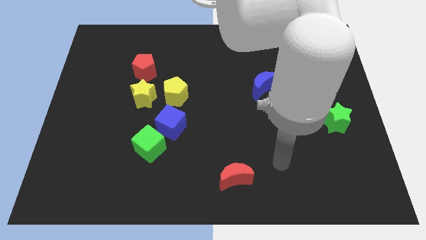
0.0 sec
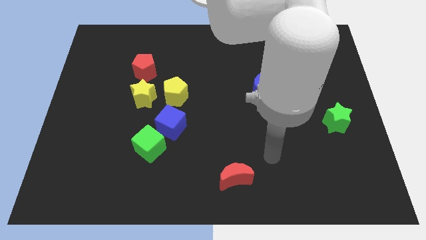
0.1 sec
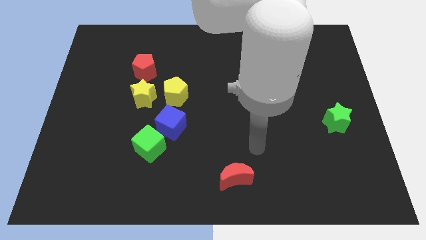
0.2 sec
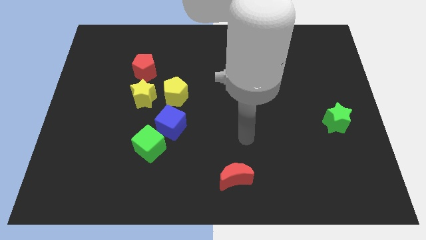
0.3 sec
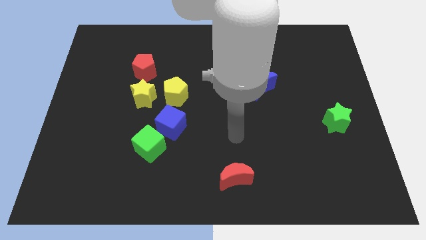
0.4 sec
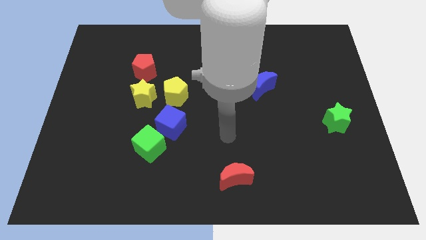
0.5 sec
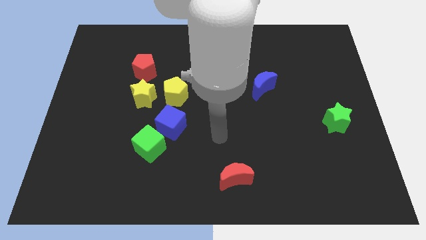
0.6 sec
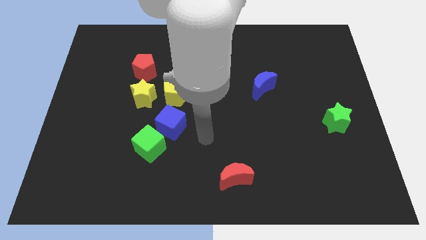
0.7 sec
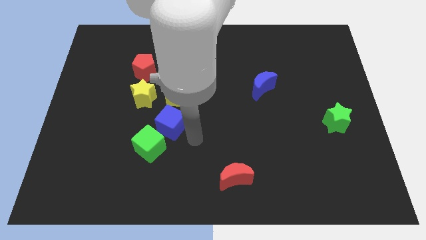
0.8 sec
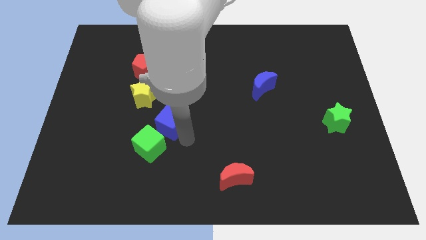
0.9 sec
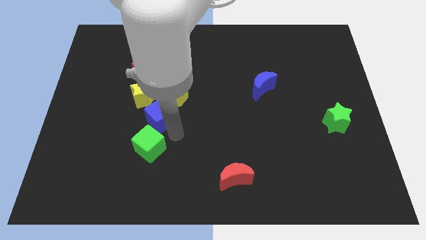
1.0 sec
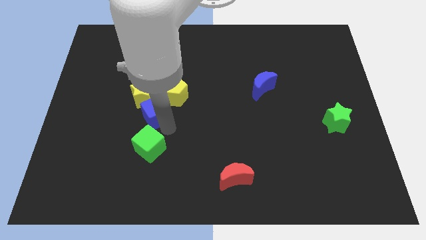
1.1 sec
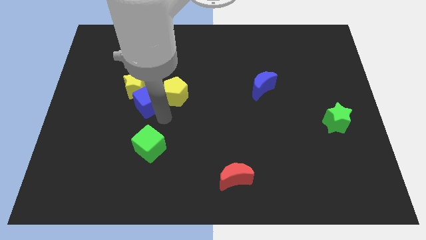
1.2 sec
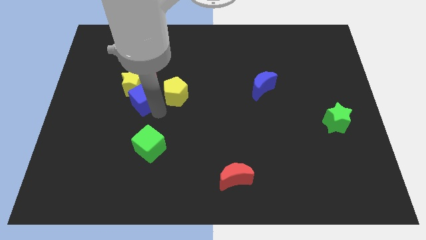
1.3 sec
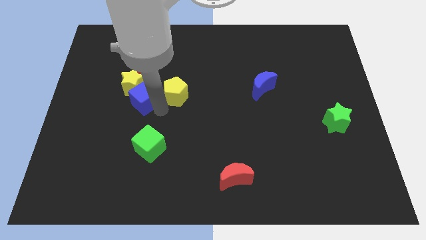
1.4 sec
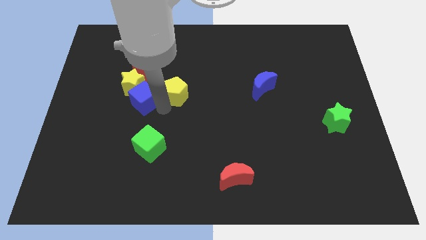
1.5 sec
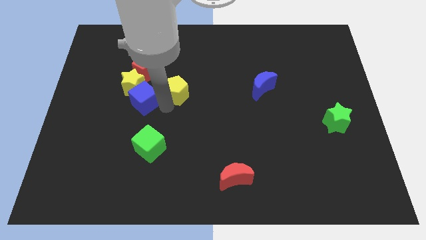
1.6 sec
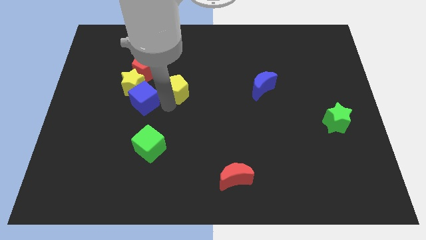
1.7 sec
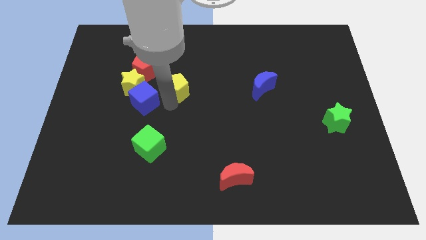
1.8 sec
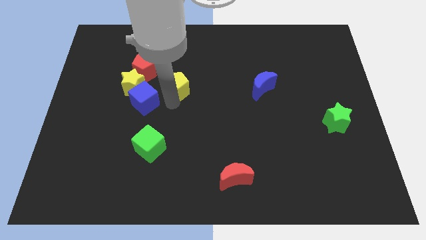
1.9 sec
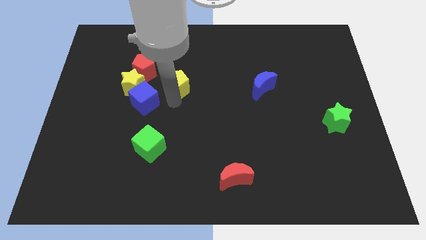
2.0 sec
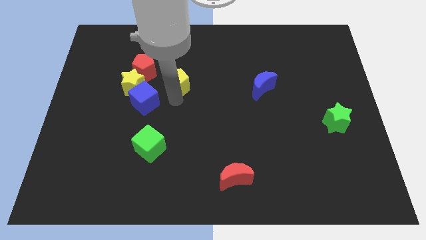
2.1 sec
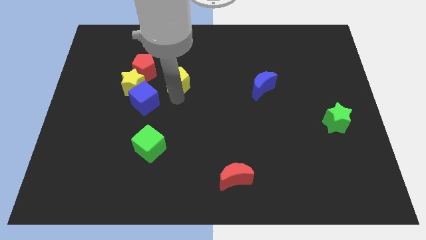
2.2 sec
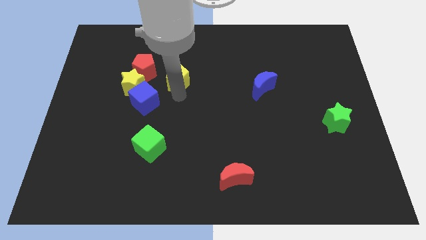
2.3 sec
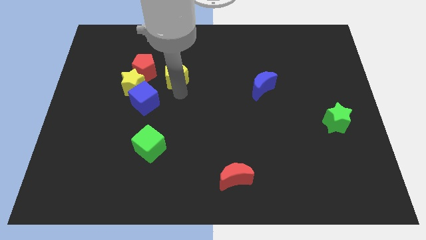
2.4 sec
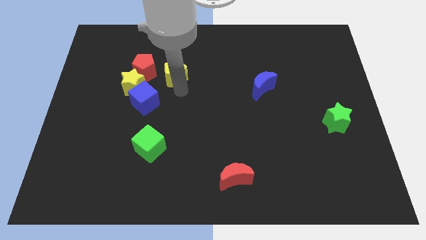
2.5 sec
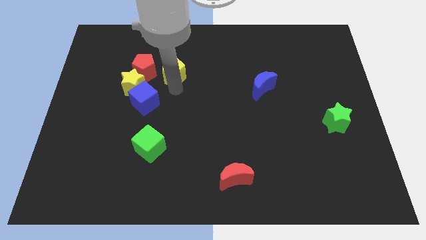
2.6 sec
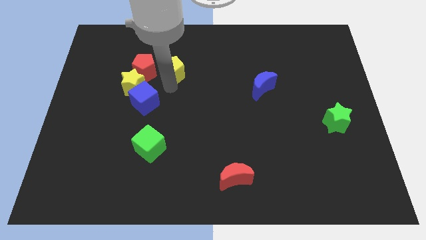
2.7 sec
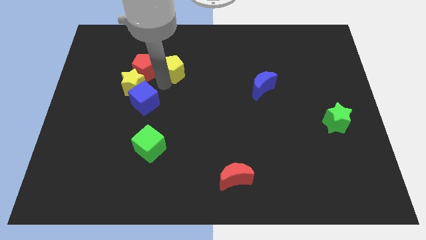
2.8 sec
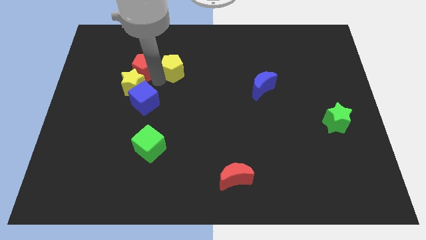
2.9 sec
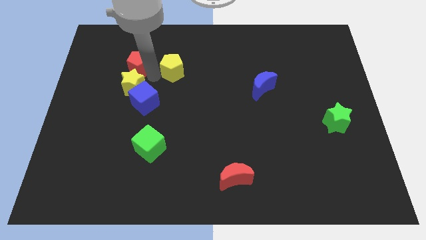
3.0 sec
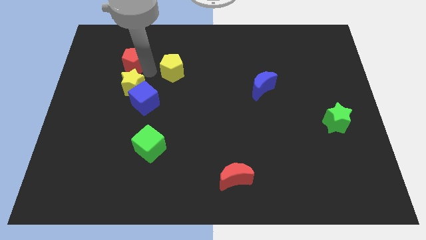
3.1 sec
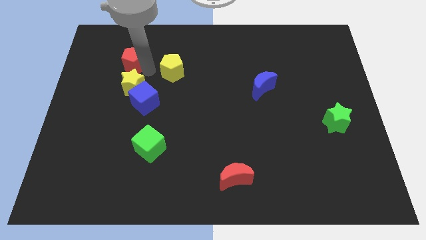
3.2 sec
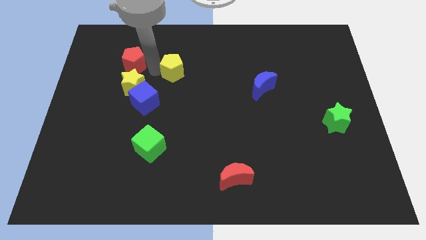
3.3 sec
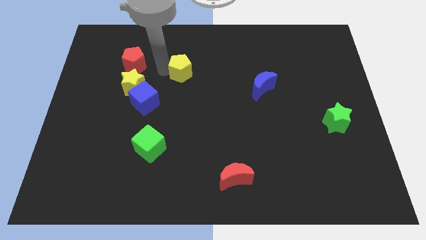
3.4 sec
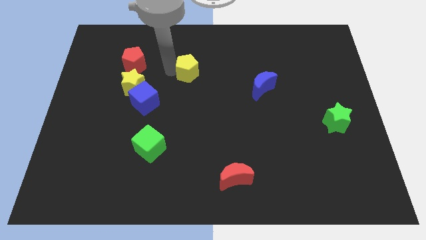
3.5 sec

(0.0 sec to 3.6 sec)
push the yellow pentagon diagonally upwards and right a little bit

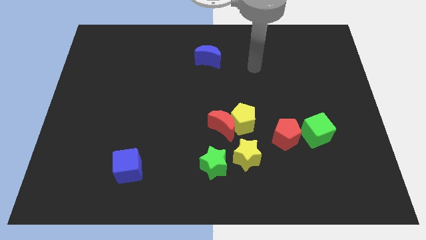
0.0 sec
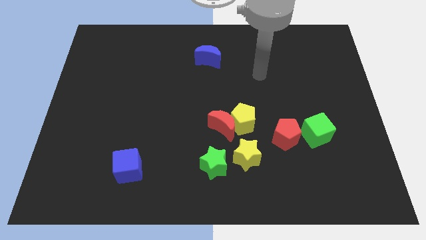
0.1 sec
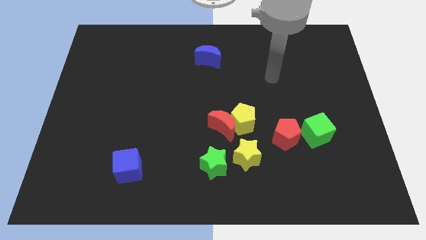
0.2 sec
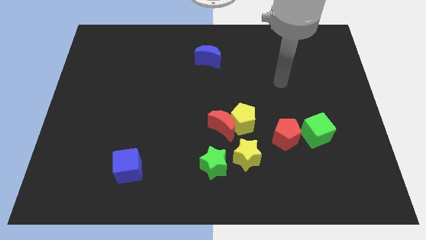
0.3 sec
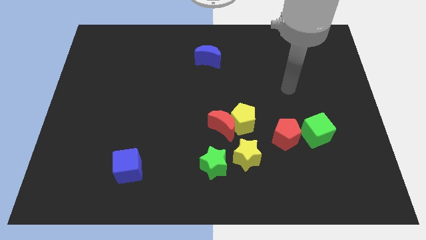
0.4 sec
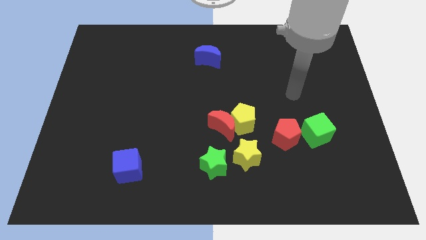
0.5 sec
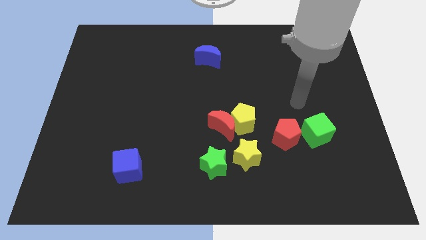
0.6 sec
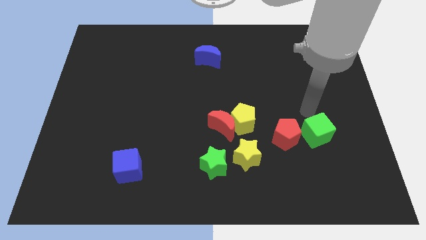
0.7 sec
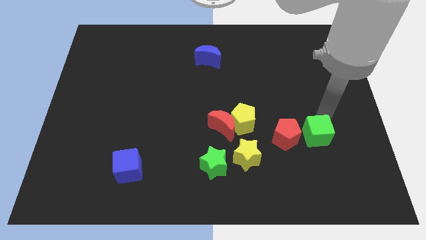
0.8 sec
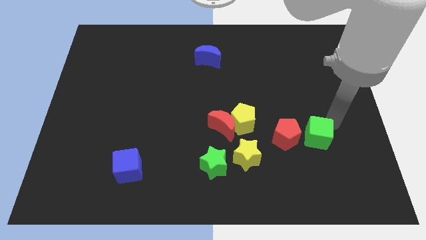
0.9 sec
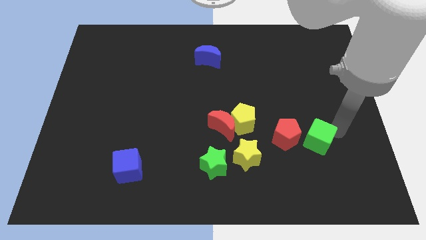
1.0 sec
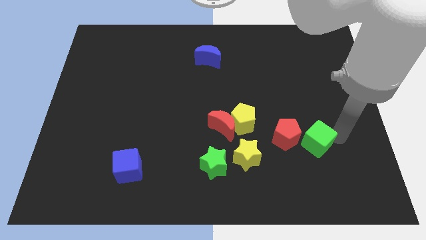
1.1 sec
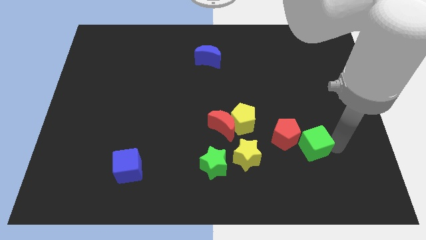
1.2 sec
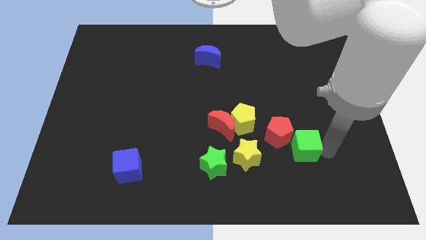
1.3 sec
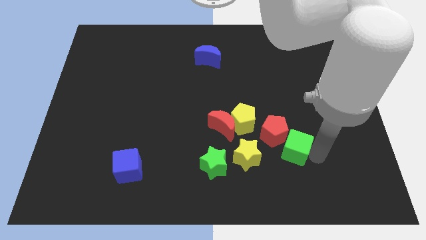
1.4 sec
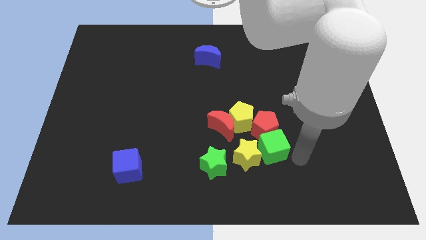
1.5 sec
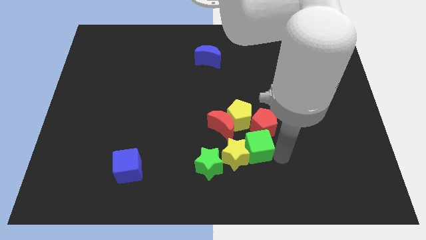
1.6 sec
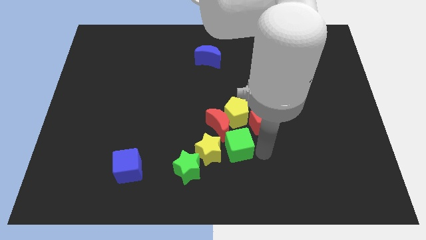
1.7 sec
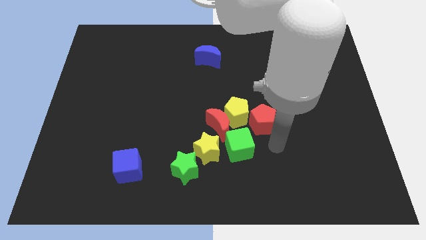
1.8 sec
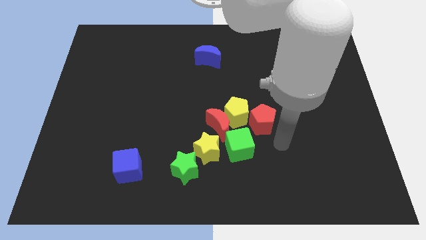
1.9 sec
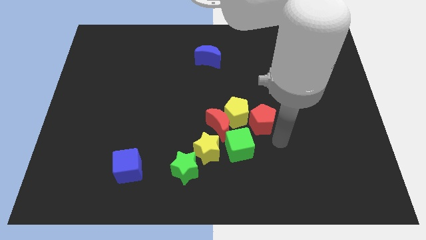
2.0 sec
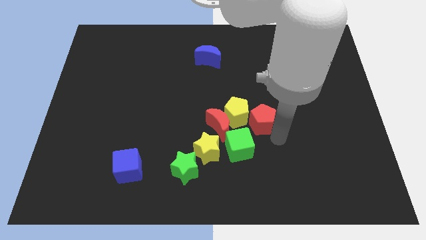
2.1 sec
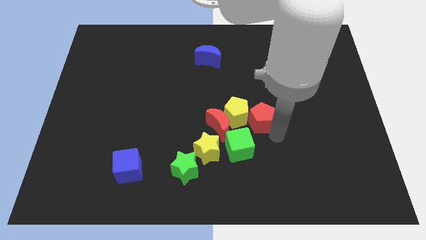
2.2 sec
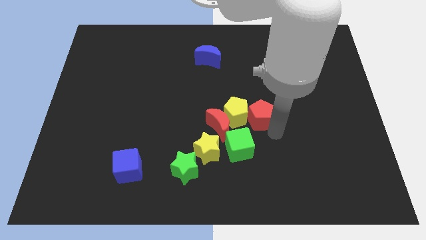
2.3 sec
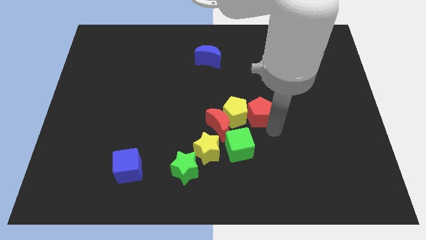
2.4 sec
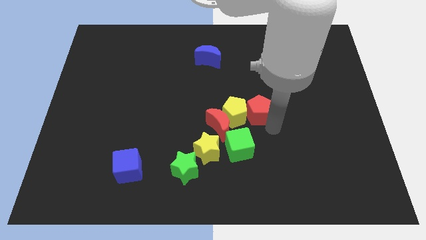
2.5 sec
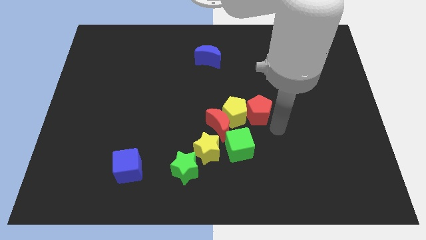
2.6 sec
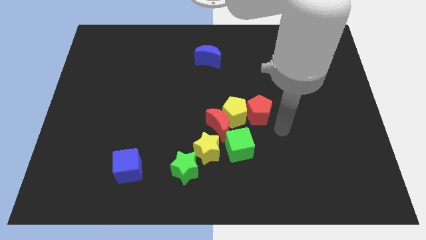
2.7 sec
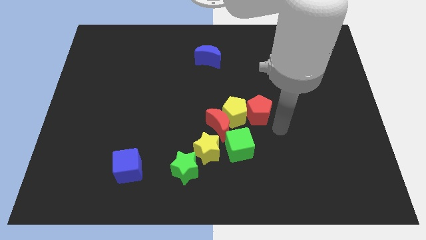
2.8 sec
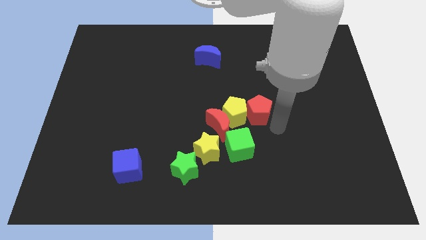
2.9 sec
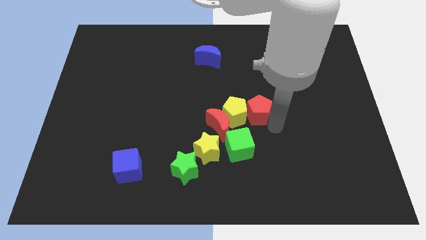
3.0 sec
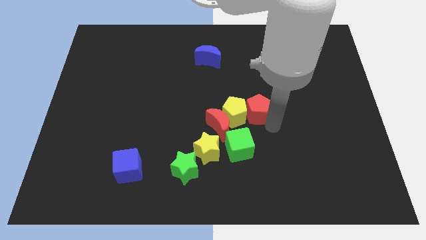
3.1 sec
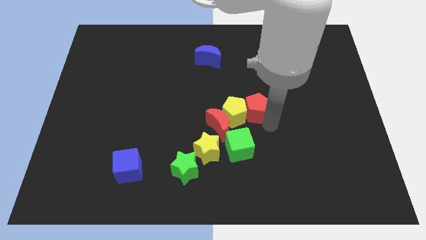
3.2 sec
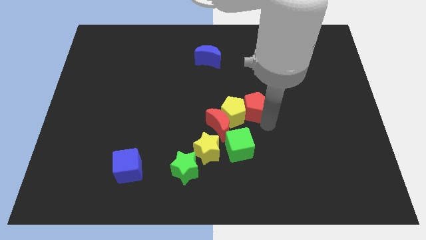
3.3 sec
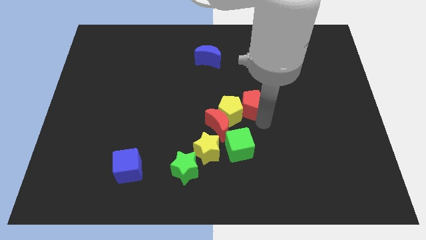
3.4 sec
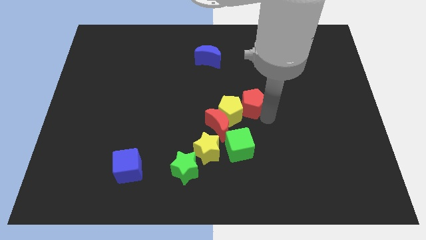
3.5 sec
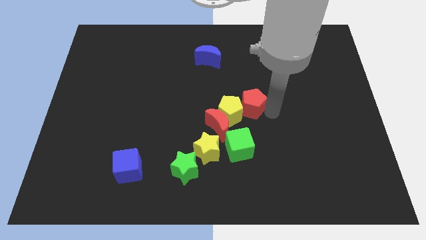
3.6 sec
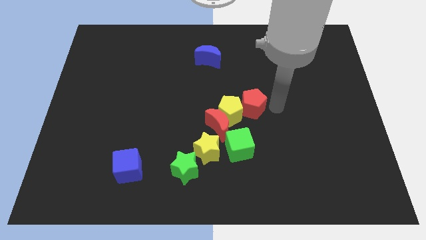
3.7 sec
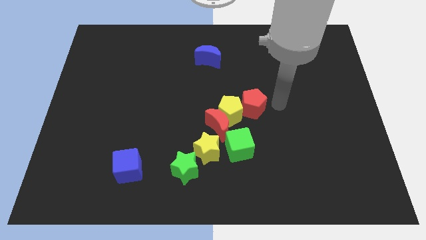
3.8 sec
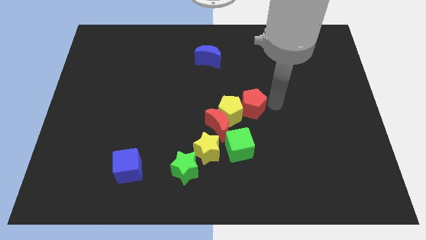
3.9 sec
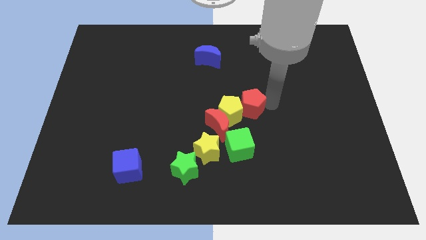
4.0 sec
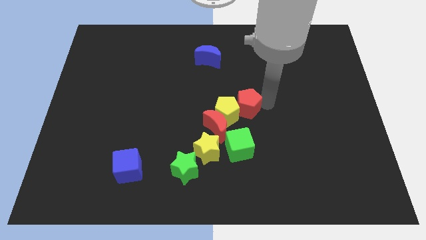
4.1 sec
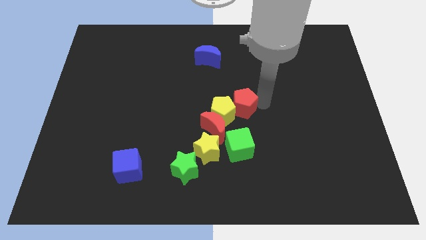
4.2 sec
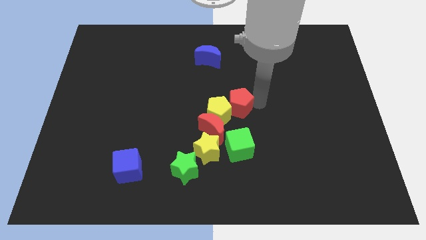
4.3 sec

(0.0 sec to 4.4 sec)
slightly slide the red pentagon left
